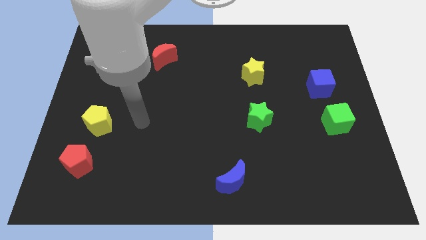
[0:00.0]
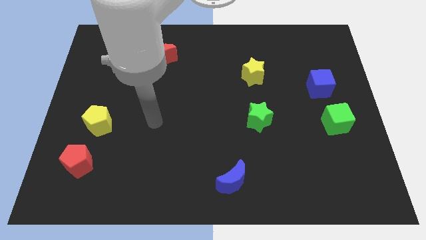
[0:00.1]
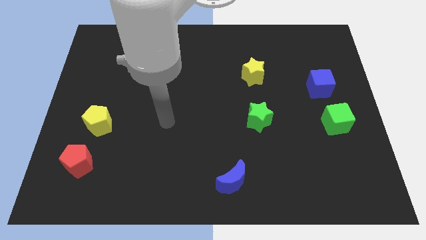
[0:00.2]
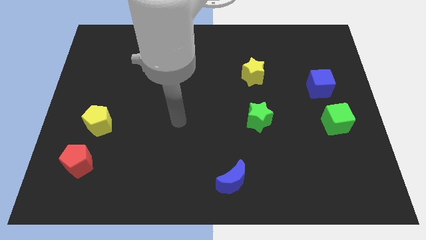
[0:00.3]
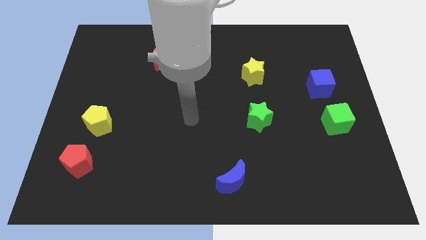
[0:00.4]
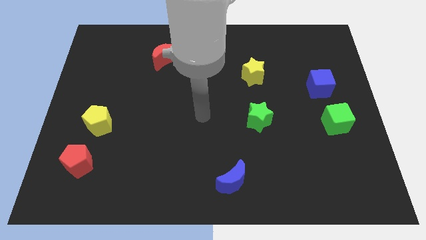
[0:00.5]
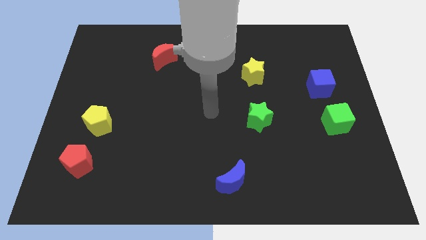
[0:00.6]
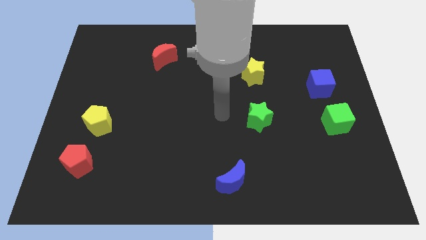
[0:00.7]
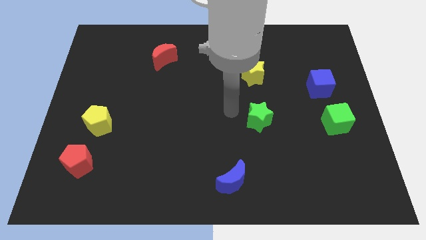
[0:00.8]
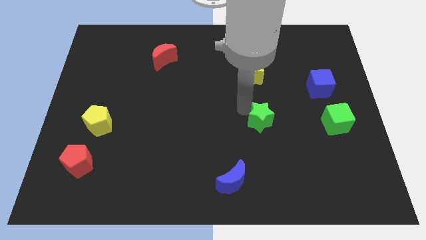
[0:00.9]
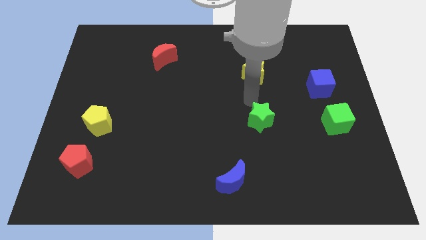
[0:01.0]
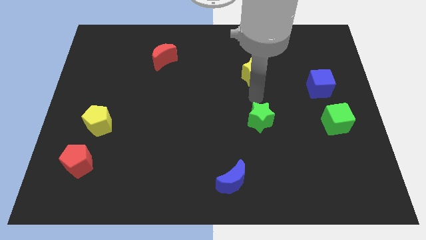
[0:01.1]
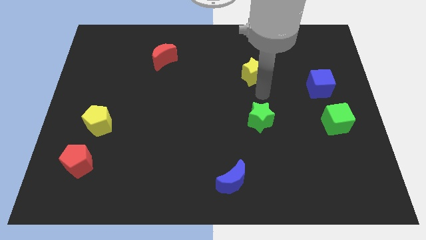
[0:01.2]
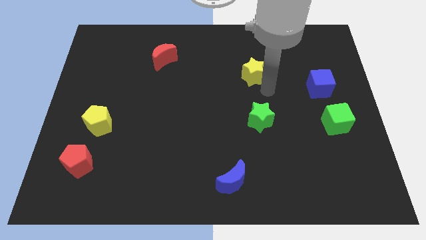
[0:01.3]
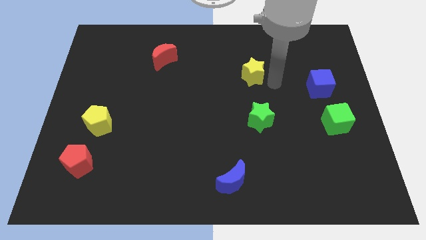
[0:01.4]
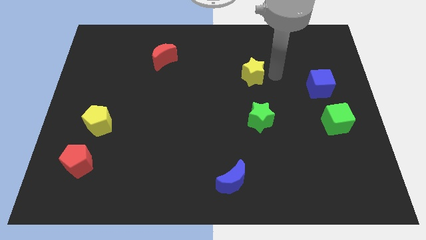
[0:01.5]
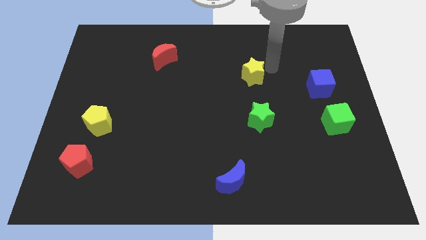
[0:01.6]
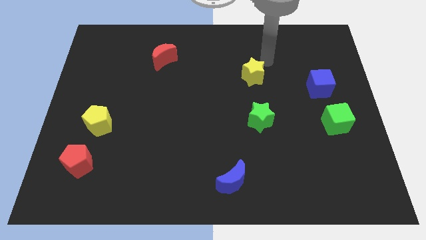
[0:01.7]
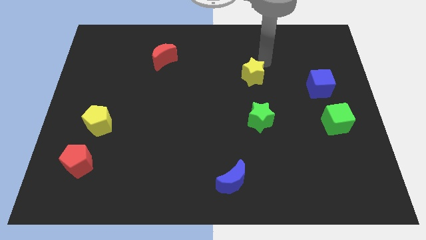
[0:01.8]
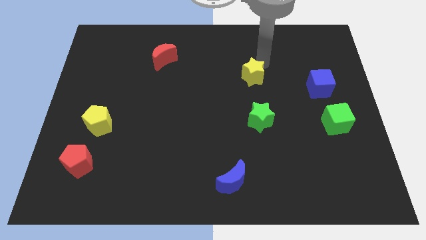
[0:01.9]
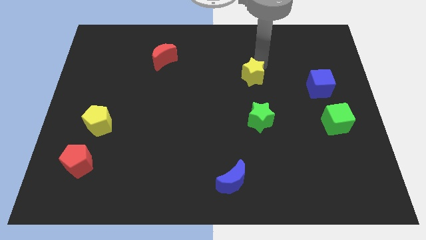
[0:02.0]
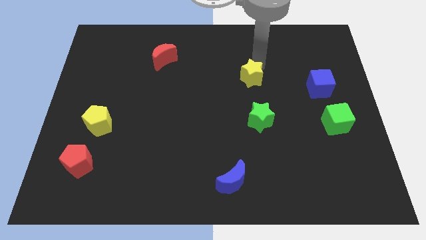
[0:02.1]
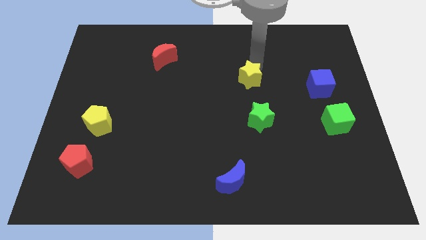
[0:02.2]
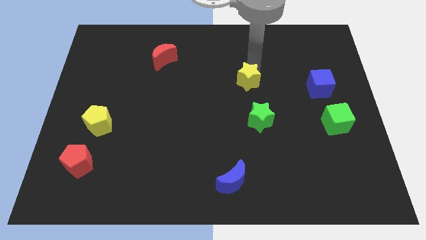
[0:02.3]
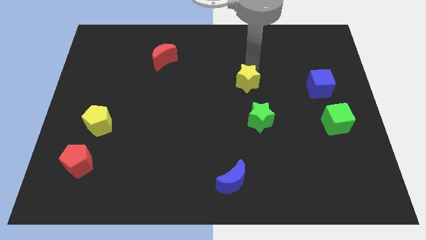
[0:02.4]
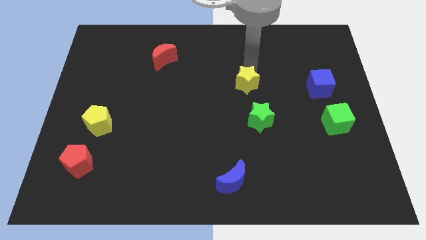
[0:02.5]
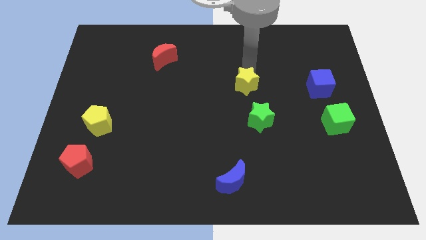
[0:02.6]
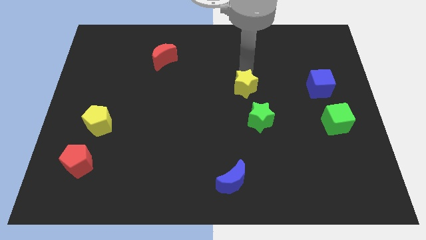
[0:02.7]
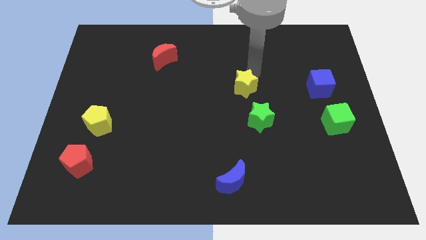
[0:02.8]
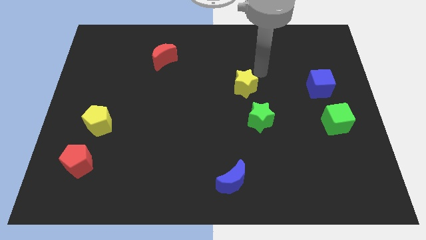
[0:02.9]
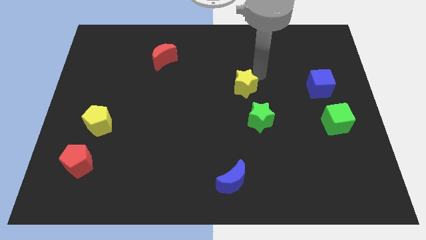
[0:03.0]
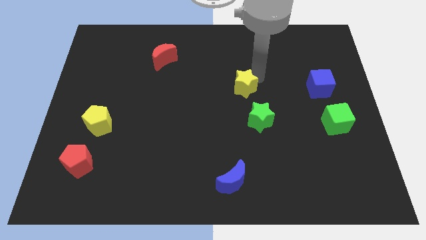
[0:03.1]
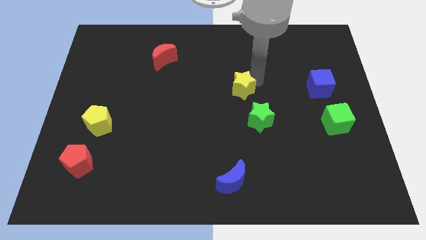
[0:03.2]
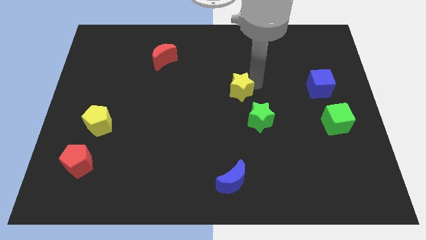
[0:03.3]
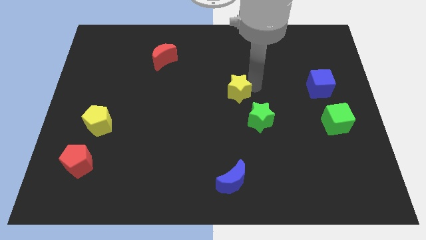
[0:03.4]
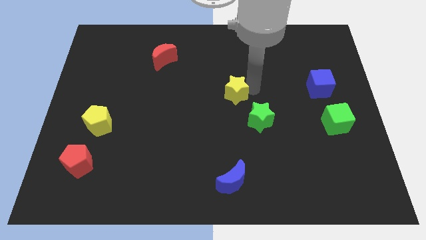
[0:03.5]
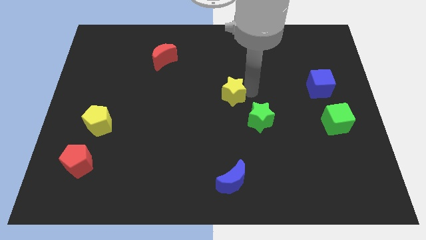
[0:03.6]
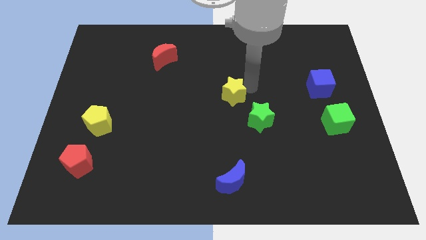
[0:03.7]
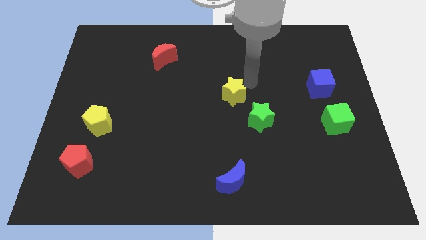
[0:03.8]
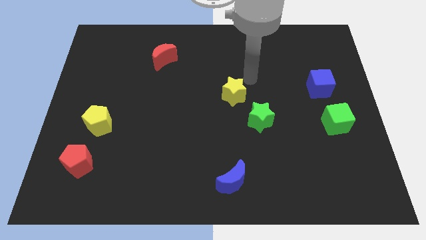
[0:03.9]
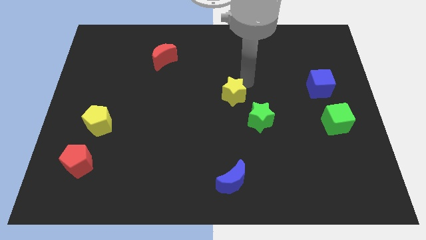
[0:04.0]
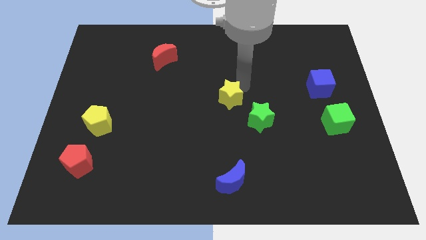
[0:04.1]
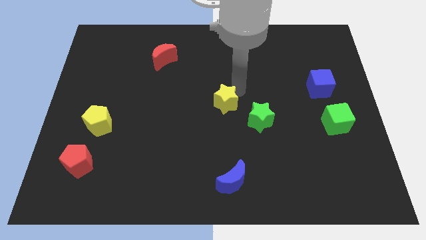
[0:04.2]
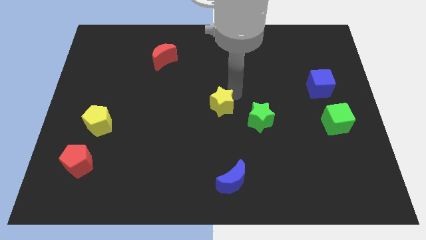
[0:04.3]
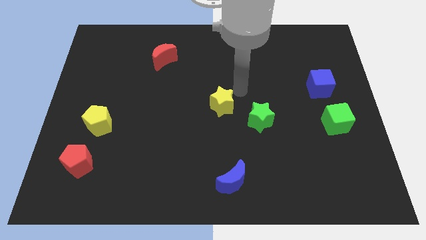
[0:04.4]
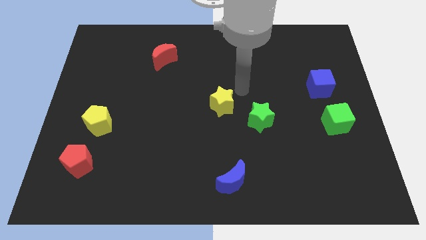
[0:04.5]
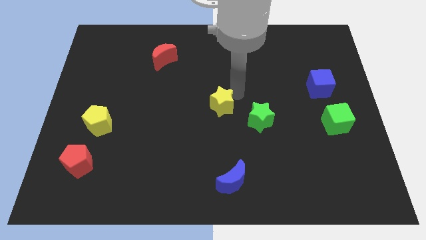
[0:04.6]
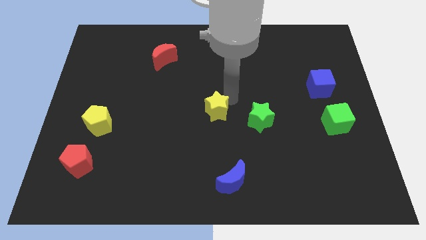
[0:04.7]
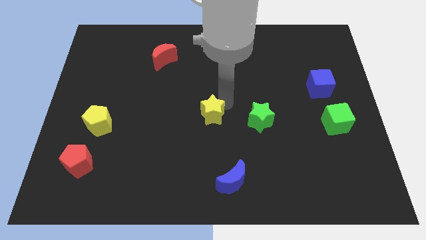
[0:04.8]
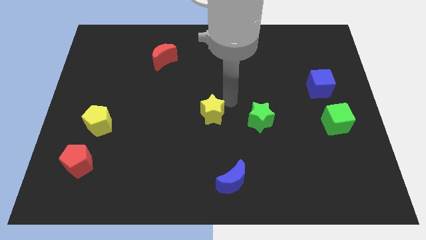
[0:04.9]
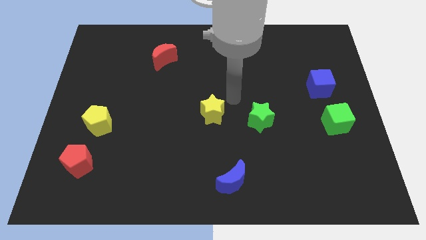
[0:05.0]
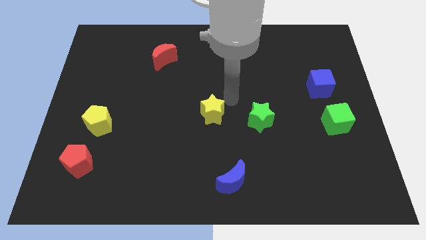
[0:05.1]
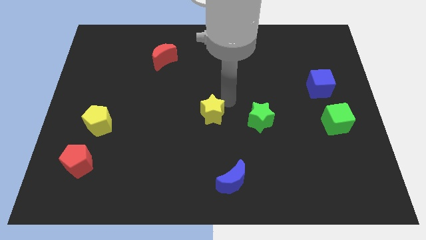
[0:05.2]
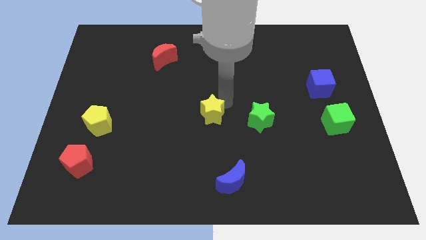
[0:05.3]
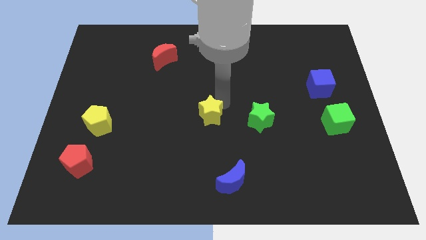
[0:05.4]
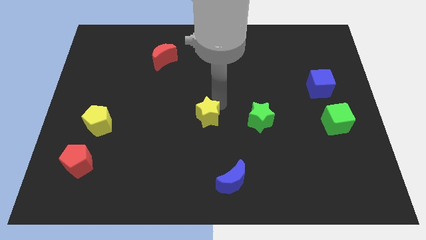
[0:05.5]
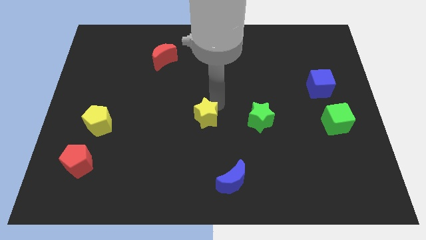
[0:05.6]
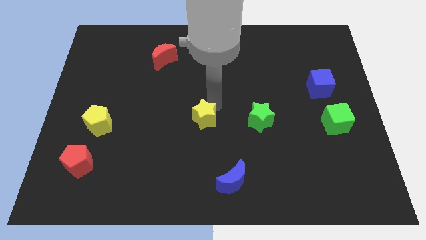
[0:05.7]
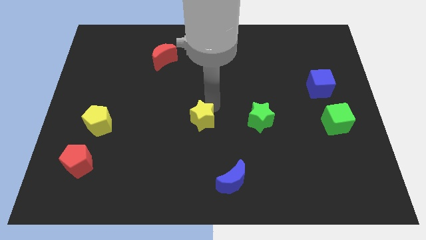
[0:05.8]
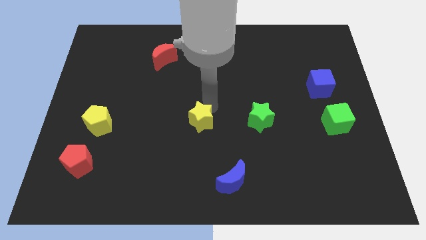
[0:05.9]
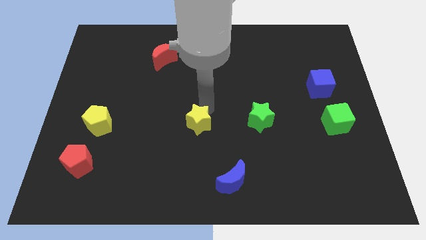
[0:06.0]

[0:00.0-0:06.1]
push the yellow star down and left

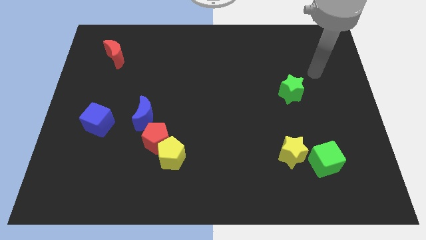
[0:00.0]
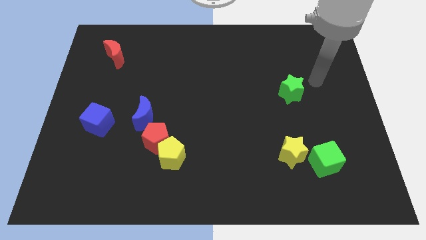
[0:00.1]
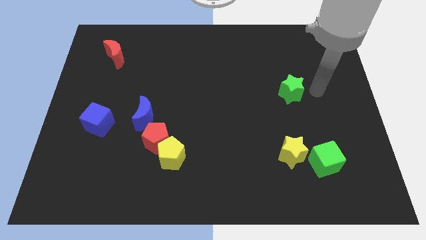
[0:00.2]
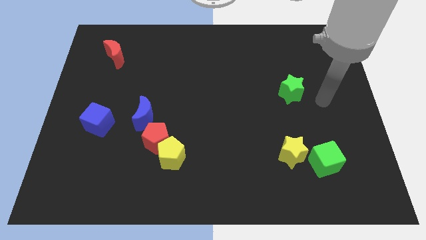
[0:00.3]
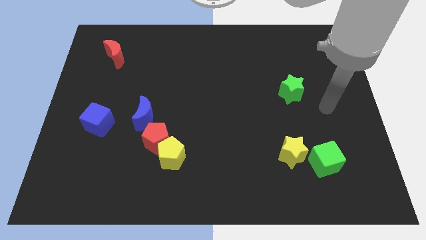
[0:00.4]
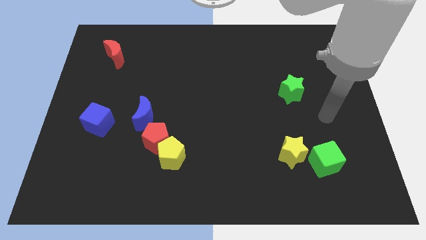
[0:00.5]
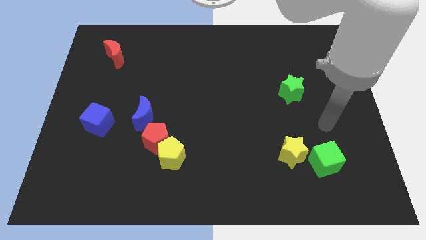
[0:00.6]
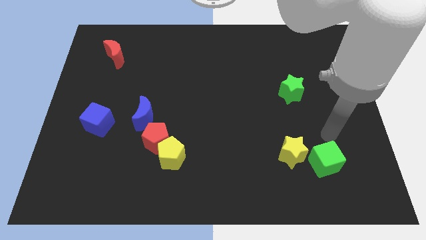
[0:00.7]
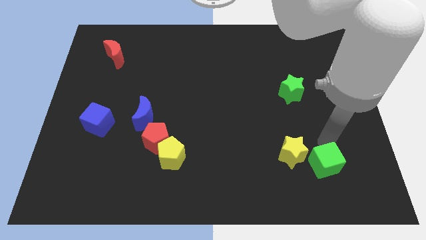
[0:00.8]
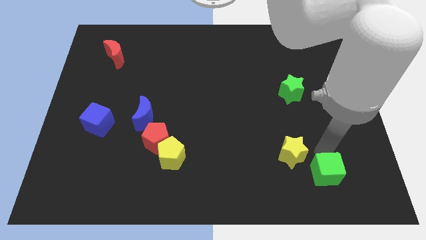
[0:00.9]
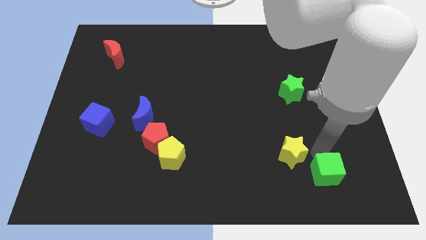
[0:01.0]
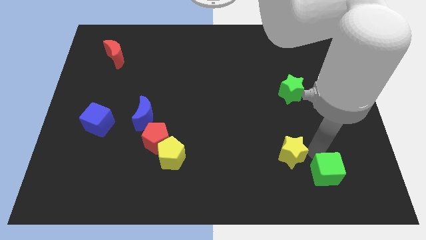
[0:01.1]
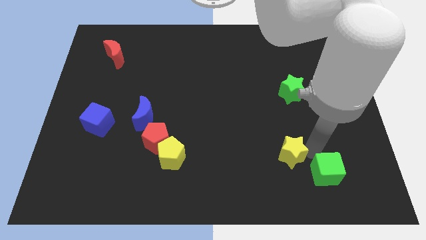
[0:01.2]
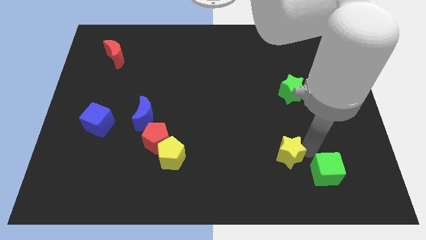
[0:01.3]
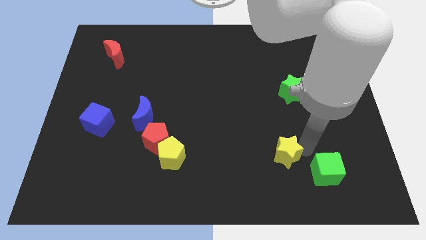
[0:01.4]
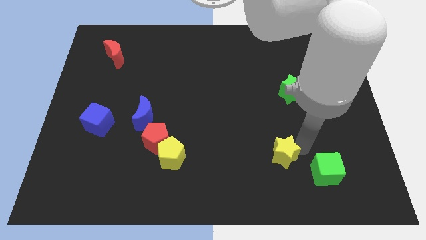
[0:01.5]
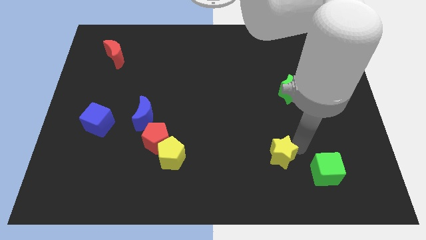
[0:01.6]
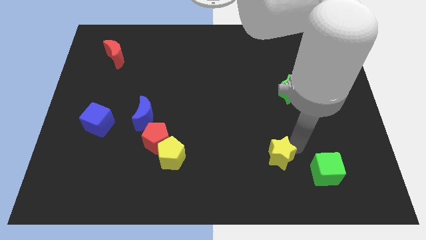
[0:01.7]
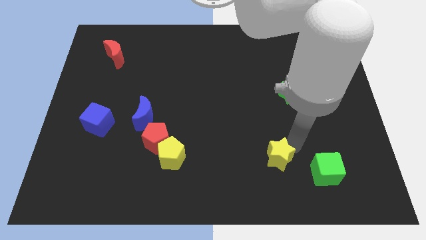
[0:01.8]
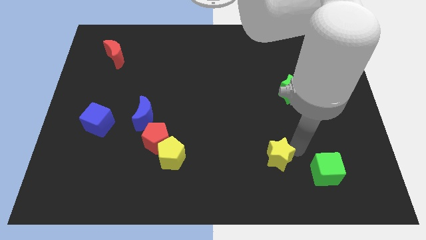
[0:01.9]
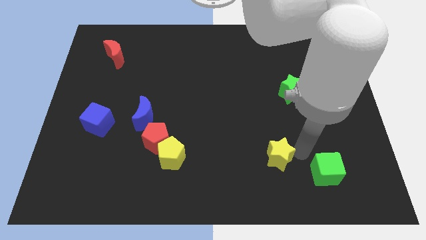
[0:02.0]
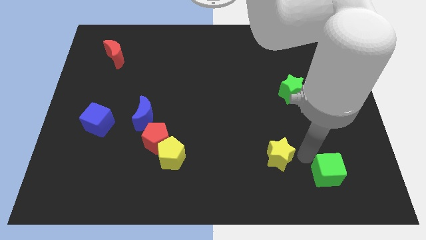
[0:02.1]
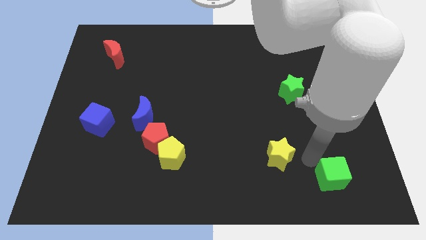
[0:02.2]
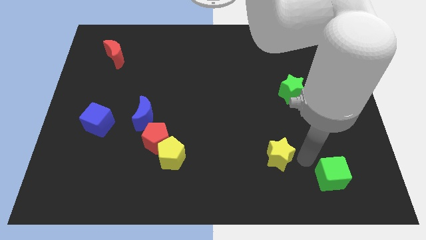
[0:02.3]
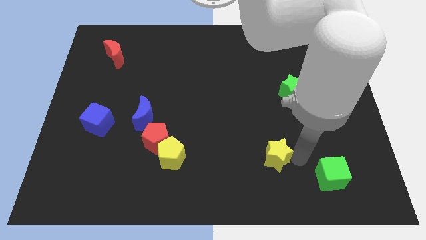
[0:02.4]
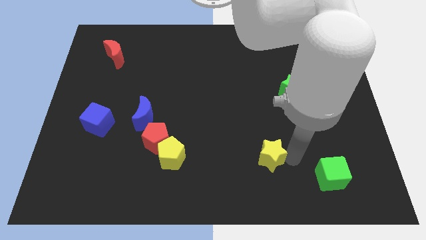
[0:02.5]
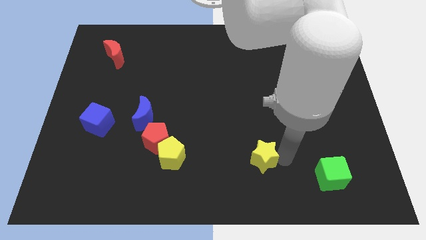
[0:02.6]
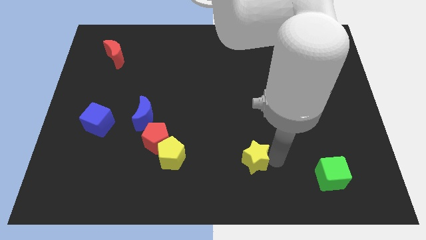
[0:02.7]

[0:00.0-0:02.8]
slightly push the yellow star to the left
